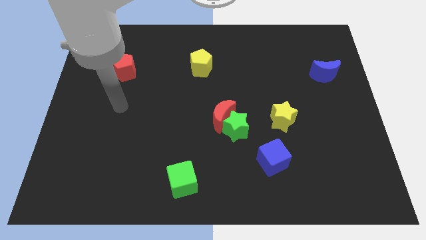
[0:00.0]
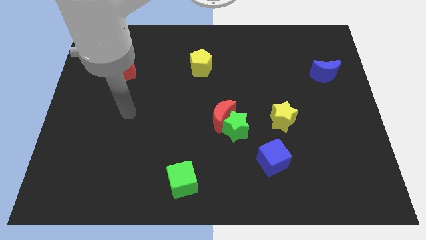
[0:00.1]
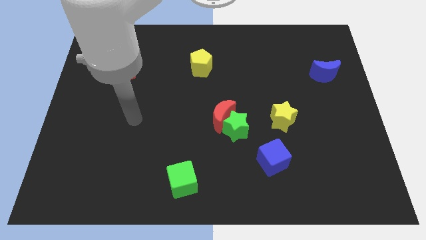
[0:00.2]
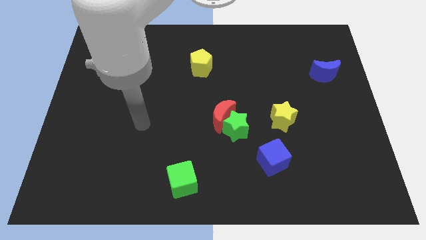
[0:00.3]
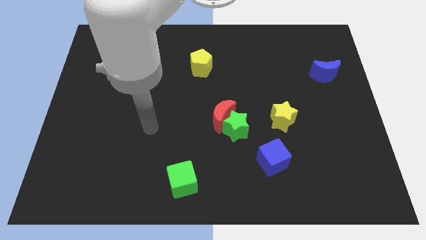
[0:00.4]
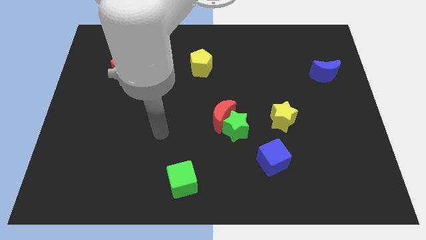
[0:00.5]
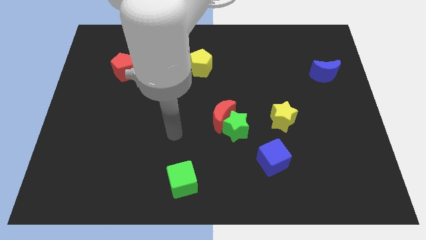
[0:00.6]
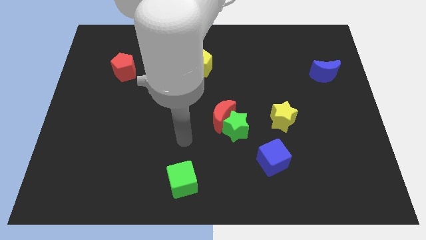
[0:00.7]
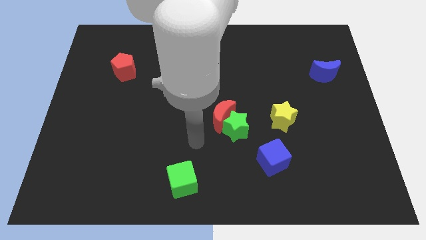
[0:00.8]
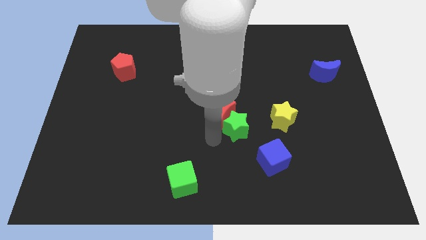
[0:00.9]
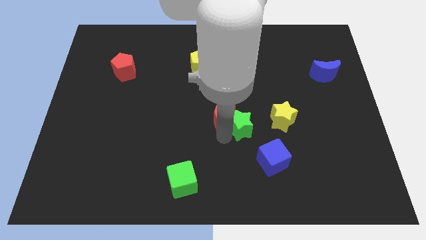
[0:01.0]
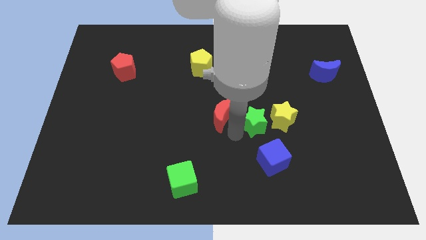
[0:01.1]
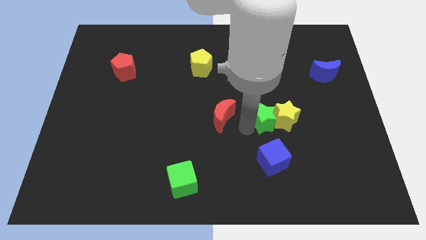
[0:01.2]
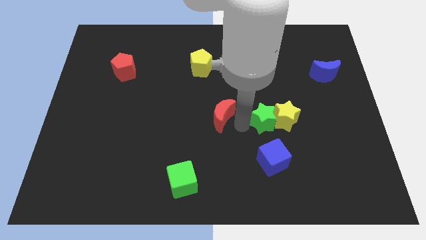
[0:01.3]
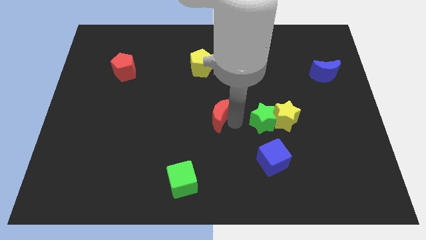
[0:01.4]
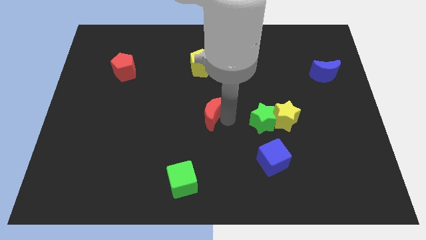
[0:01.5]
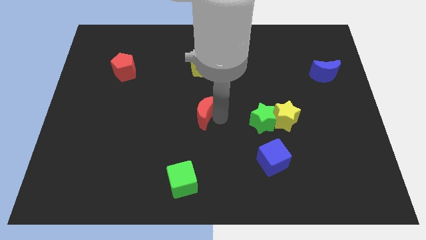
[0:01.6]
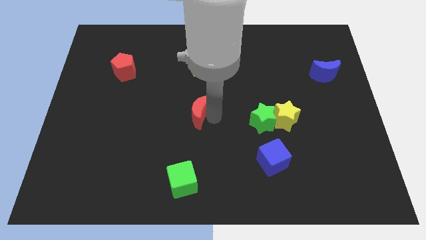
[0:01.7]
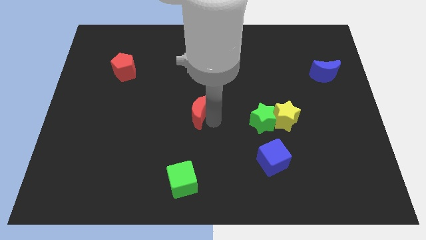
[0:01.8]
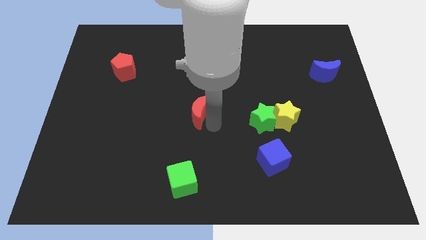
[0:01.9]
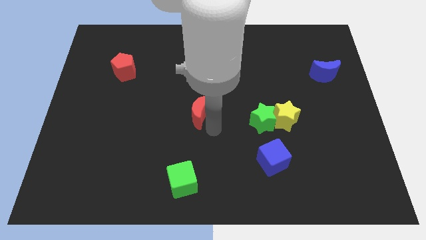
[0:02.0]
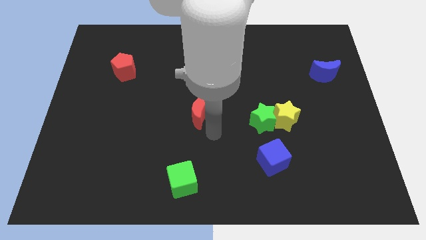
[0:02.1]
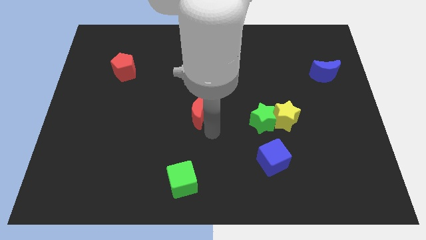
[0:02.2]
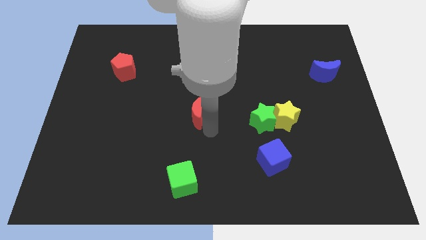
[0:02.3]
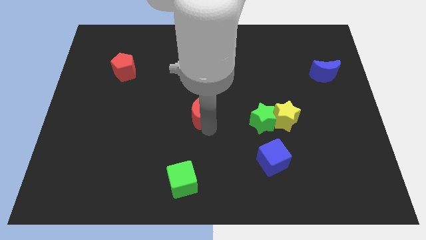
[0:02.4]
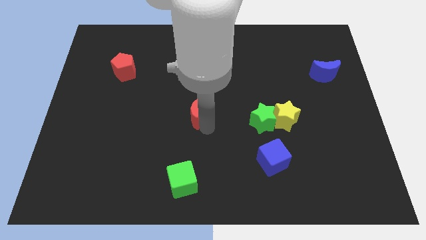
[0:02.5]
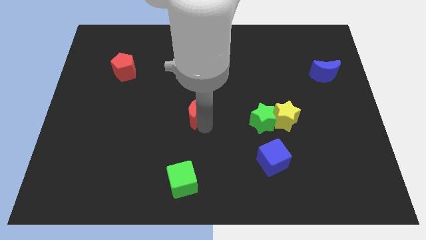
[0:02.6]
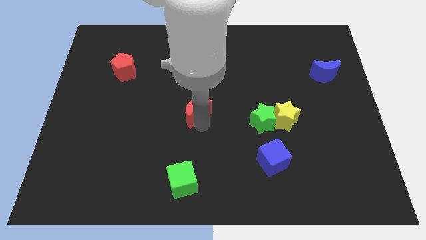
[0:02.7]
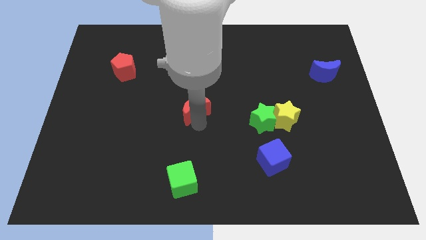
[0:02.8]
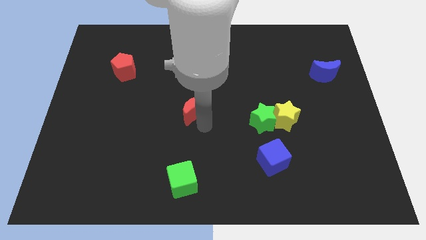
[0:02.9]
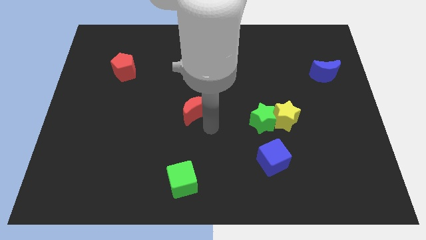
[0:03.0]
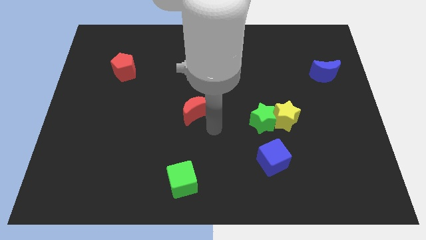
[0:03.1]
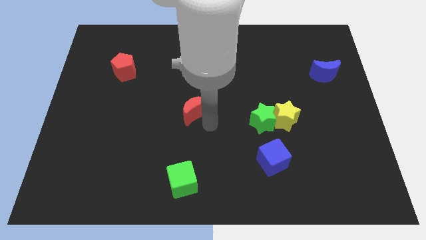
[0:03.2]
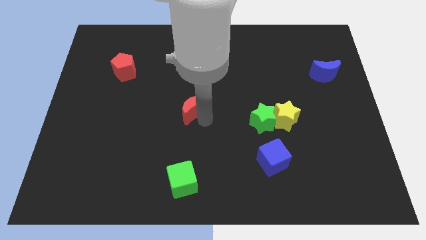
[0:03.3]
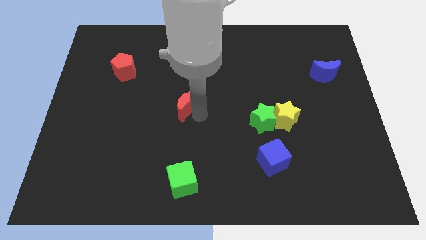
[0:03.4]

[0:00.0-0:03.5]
move the red moon somewhat up and left diagonally

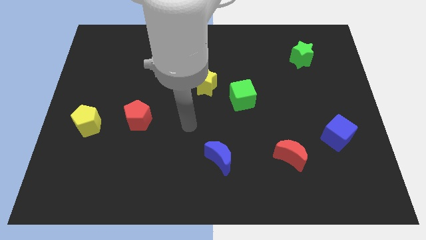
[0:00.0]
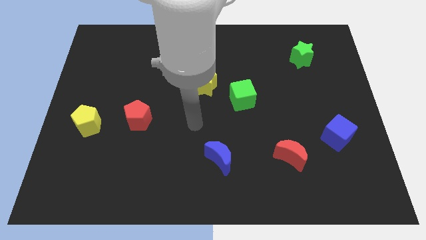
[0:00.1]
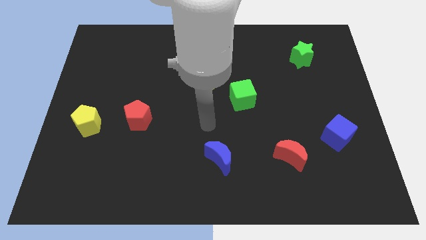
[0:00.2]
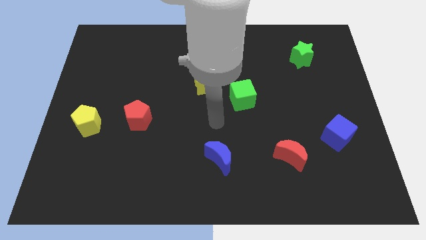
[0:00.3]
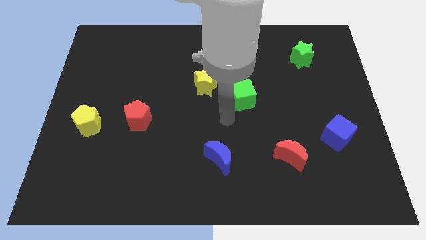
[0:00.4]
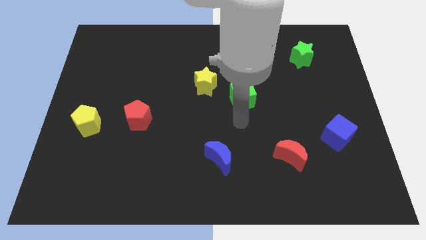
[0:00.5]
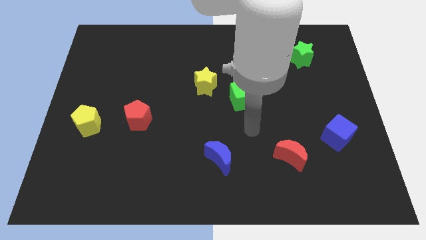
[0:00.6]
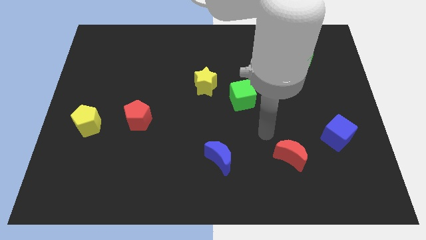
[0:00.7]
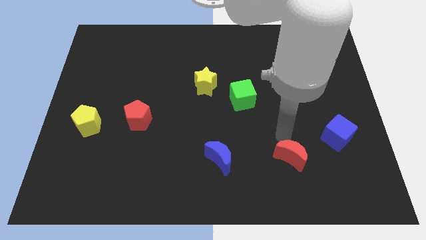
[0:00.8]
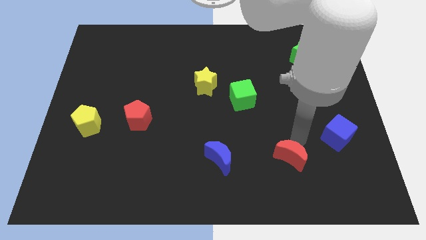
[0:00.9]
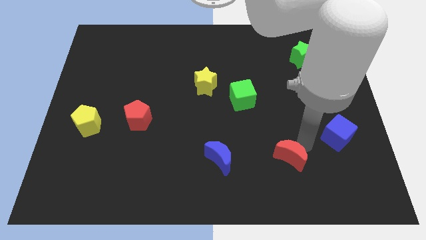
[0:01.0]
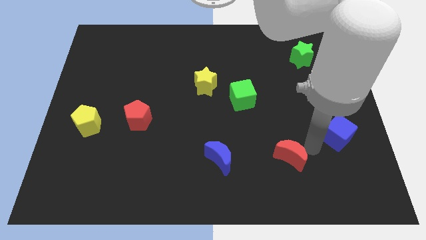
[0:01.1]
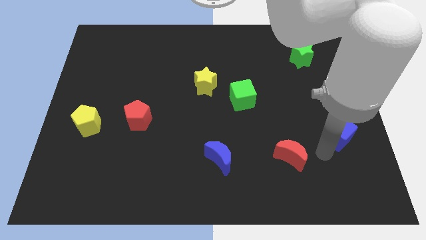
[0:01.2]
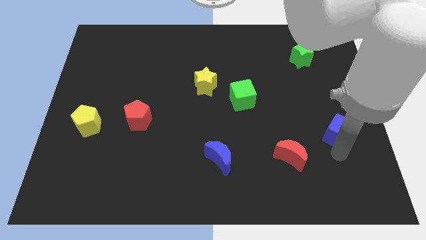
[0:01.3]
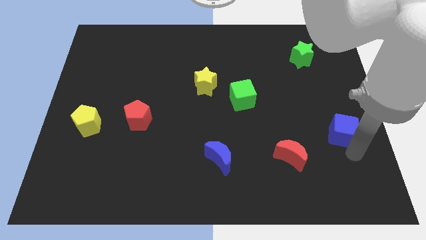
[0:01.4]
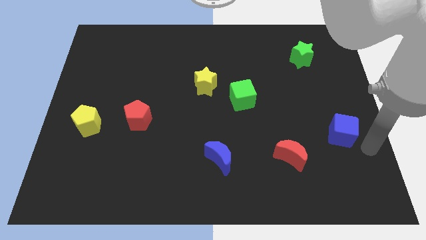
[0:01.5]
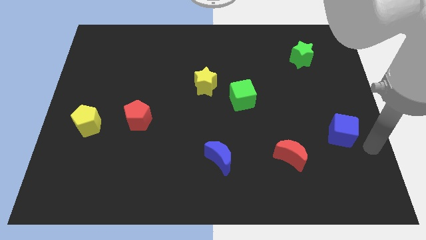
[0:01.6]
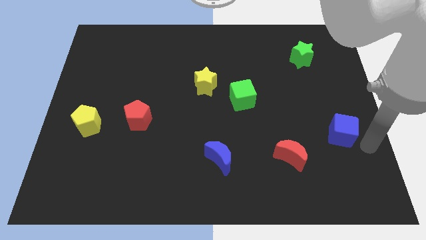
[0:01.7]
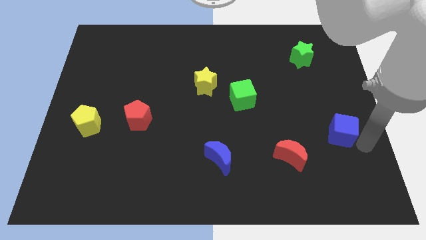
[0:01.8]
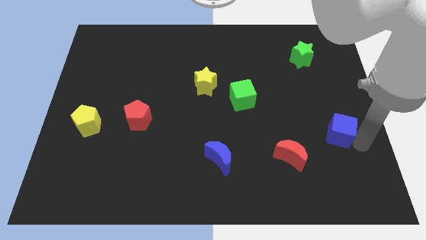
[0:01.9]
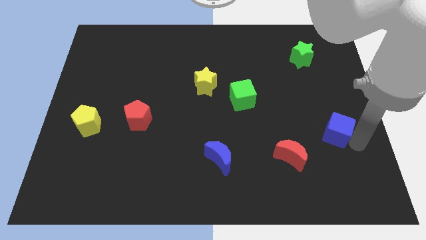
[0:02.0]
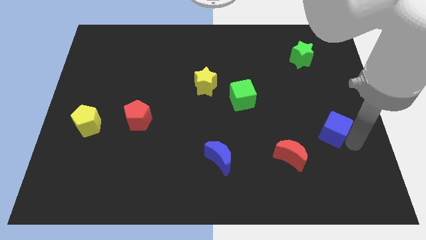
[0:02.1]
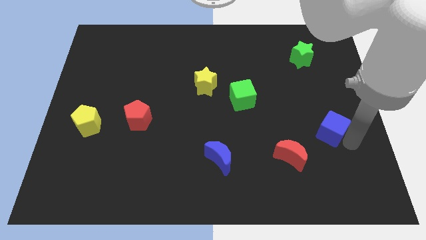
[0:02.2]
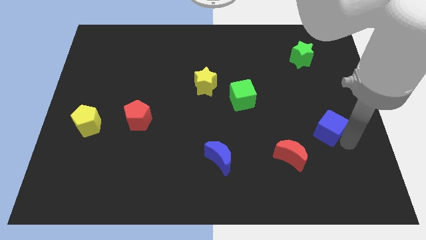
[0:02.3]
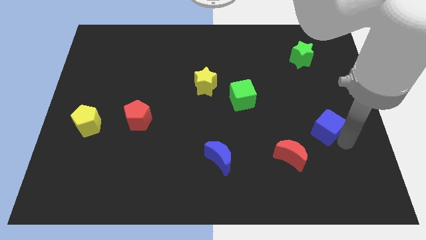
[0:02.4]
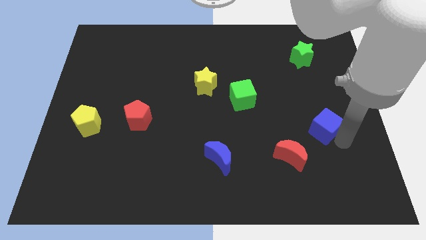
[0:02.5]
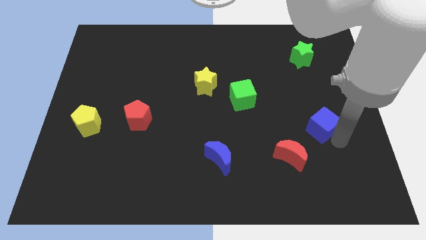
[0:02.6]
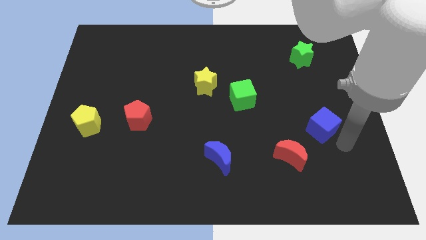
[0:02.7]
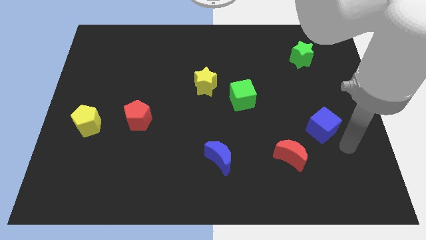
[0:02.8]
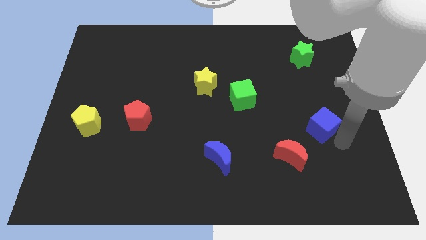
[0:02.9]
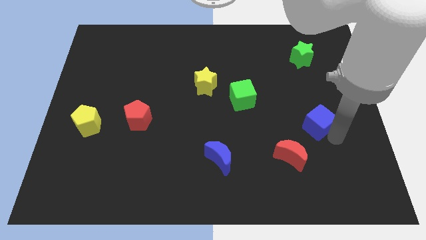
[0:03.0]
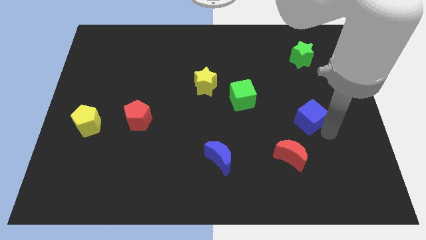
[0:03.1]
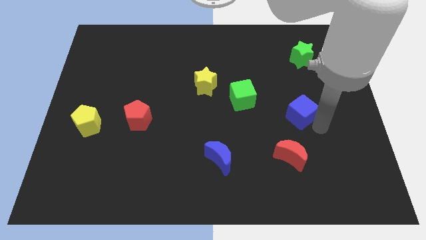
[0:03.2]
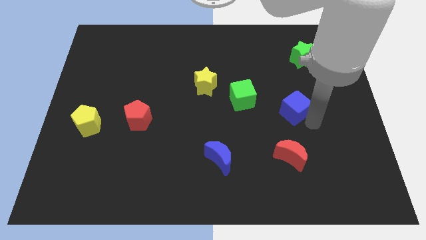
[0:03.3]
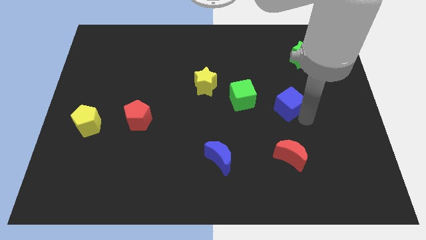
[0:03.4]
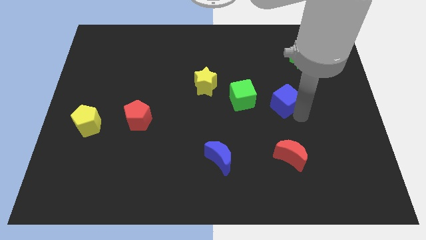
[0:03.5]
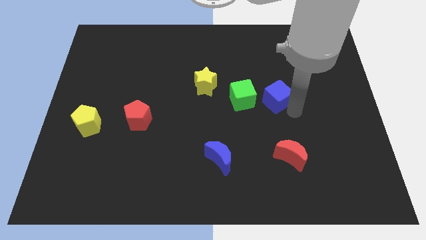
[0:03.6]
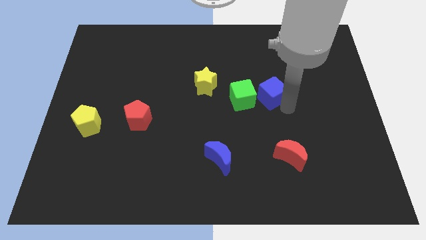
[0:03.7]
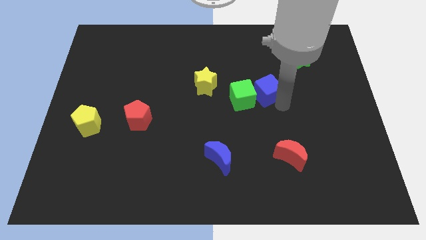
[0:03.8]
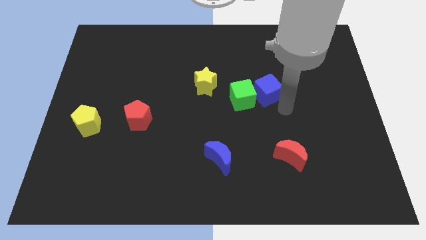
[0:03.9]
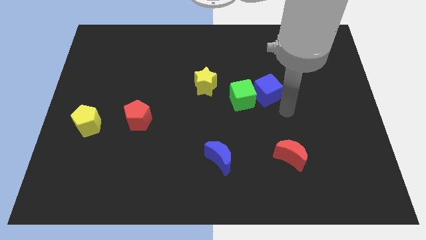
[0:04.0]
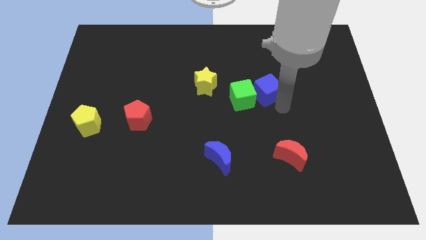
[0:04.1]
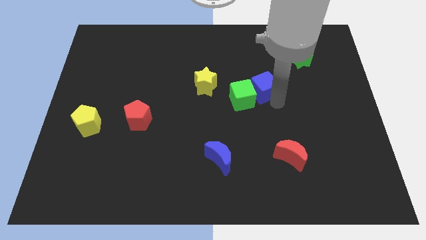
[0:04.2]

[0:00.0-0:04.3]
push the blue cube up and then left

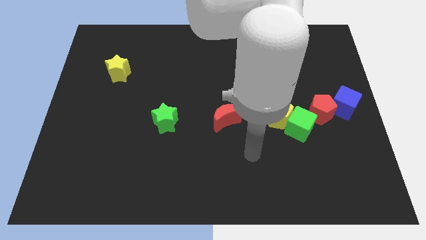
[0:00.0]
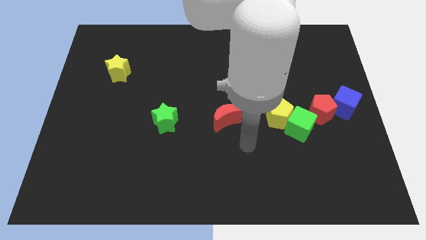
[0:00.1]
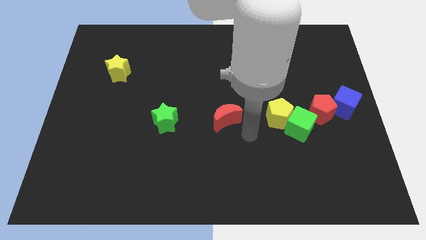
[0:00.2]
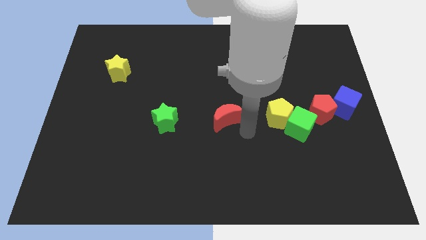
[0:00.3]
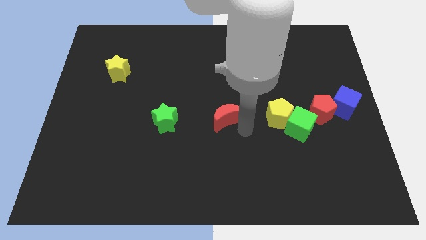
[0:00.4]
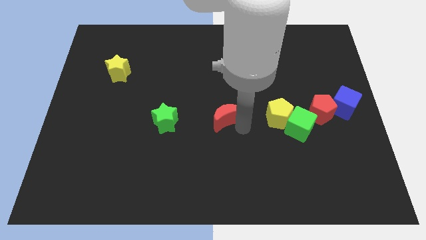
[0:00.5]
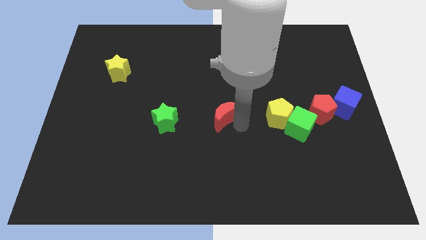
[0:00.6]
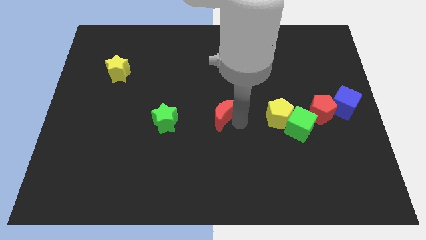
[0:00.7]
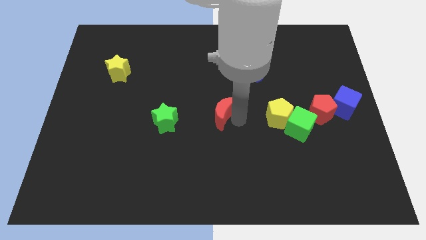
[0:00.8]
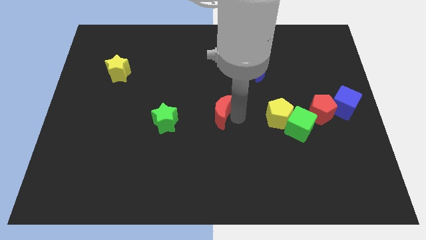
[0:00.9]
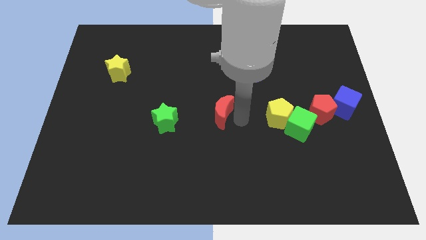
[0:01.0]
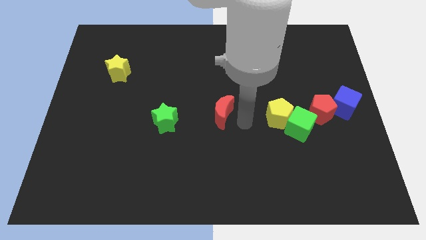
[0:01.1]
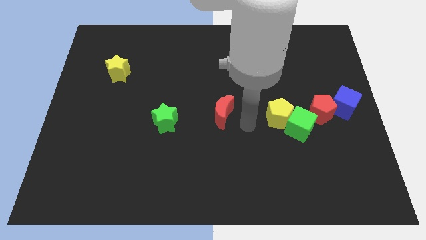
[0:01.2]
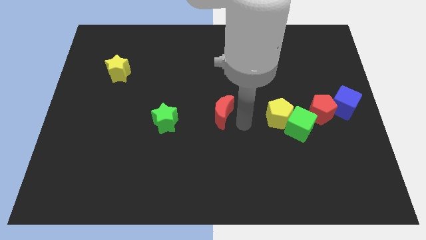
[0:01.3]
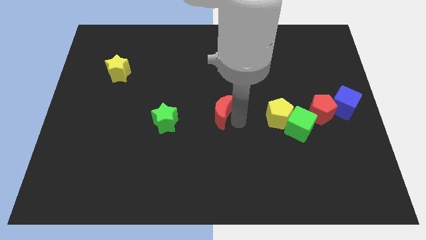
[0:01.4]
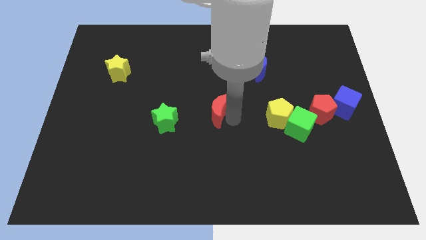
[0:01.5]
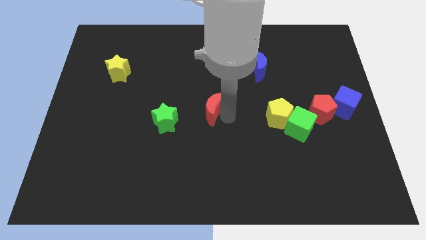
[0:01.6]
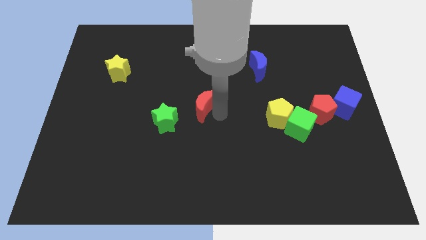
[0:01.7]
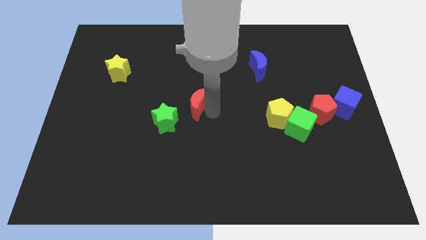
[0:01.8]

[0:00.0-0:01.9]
push the red moon diagonally up and to the left a little
